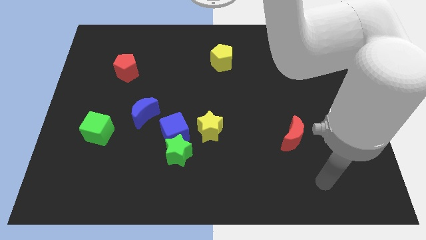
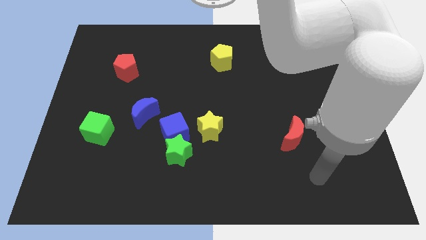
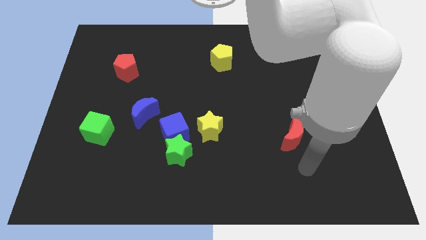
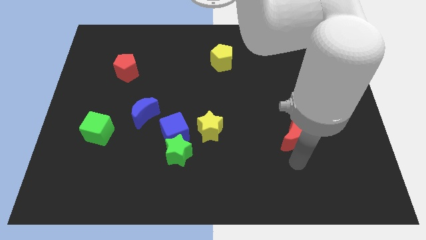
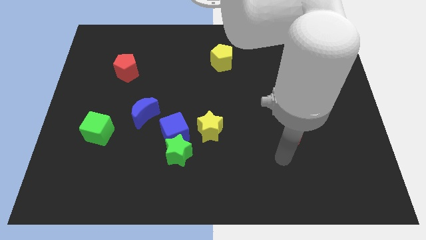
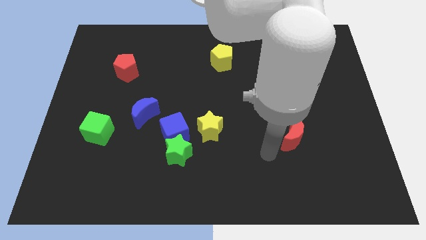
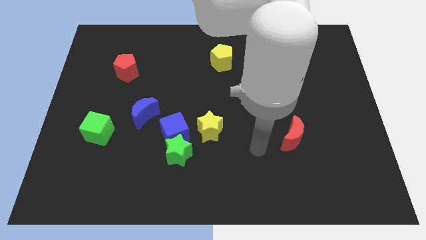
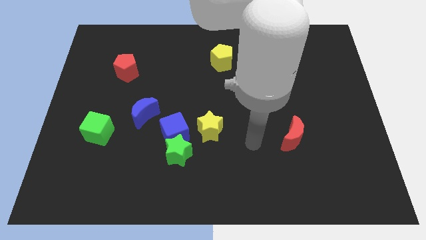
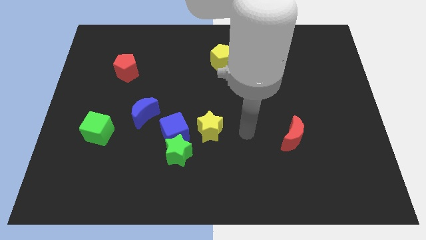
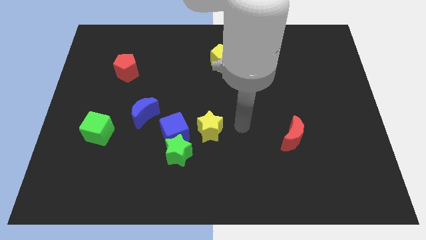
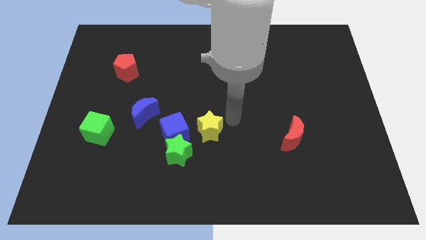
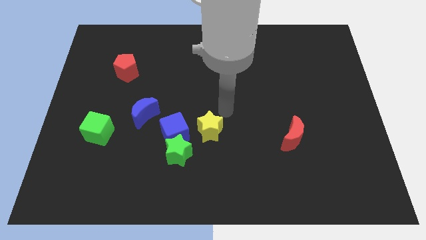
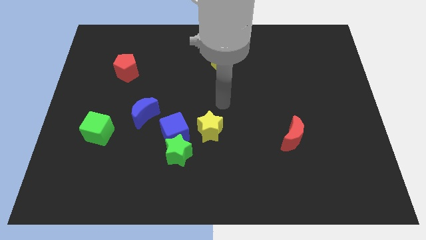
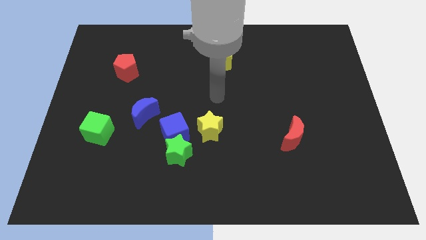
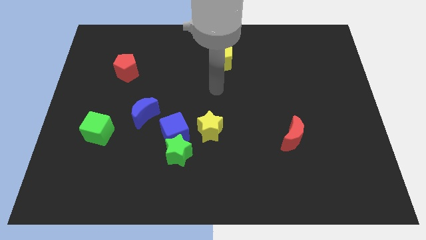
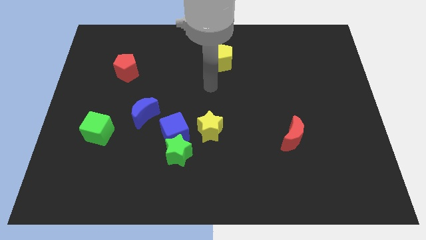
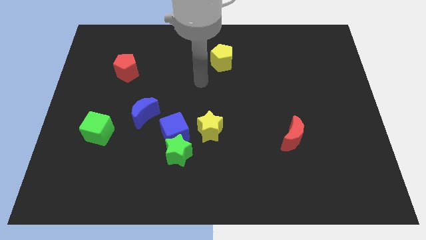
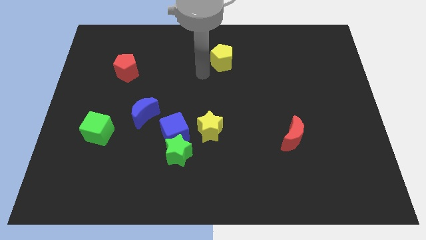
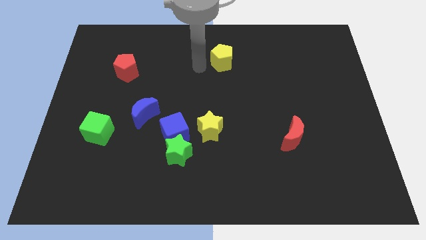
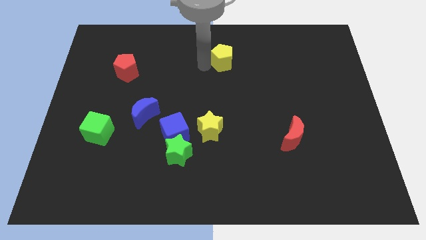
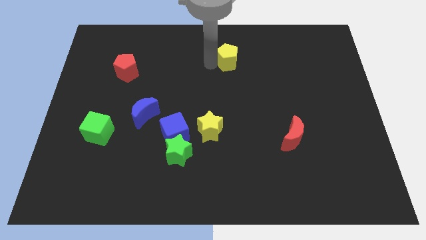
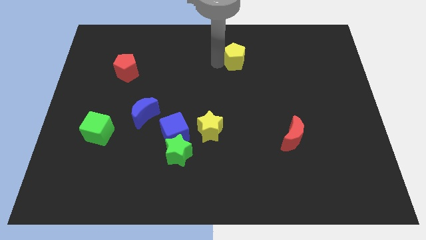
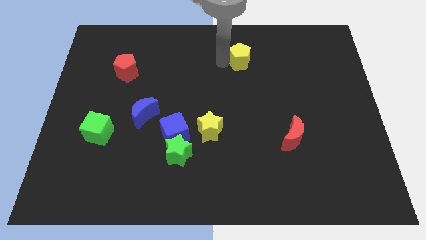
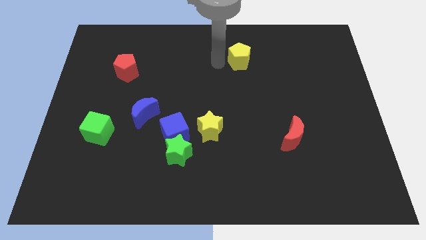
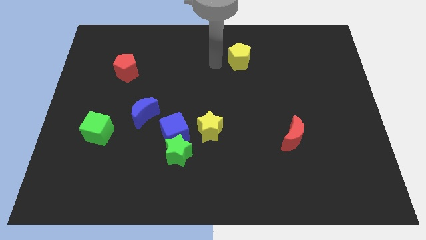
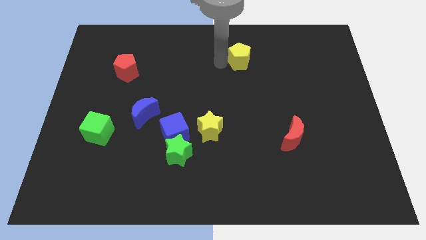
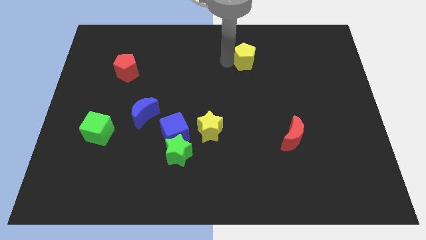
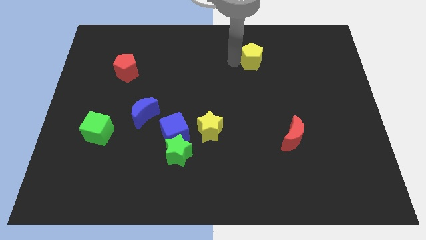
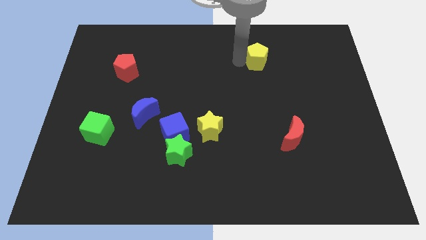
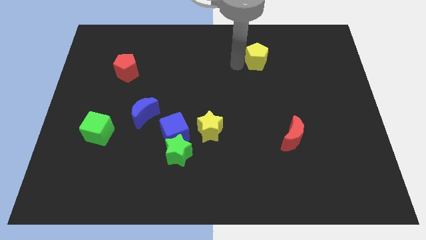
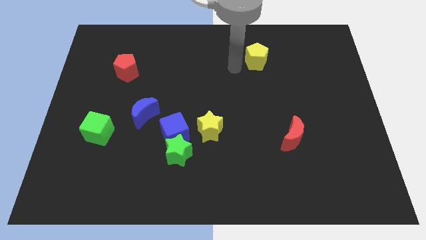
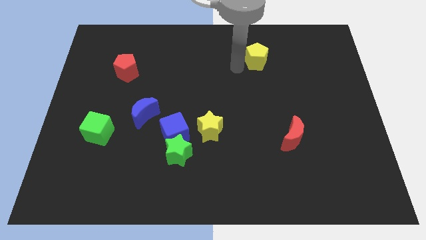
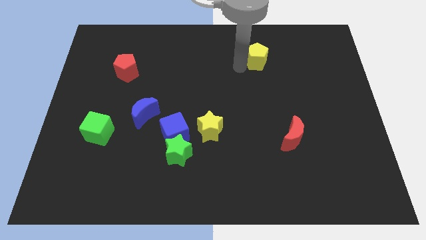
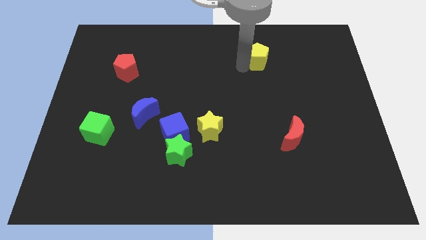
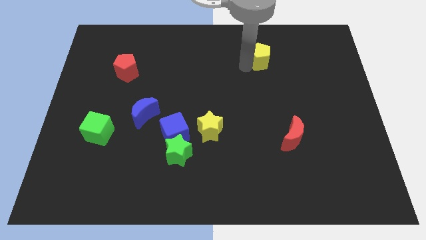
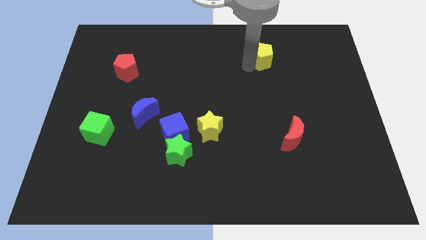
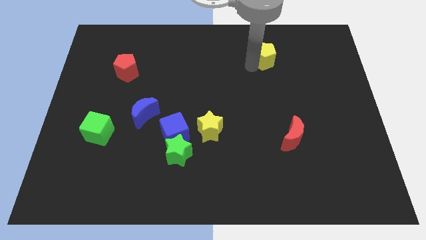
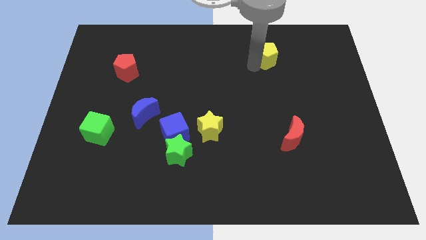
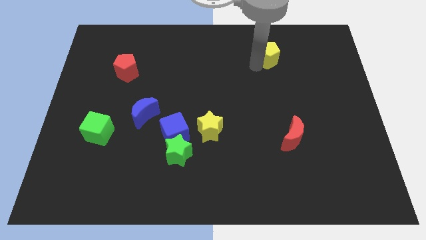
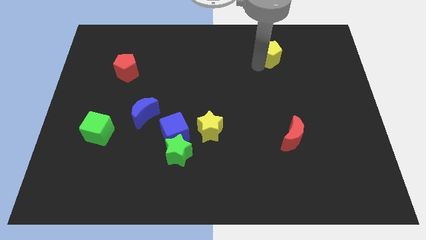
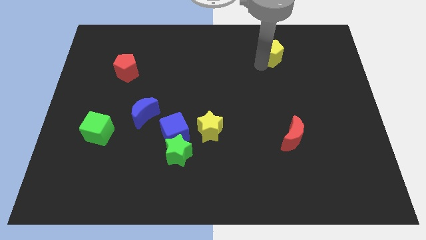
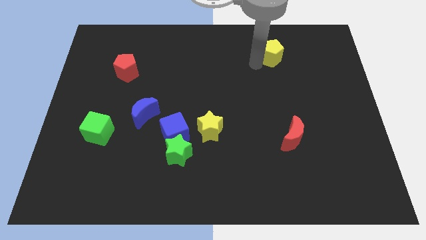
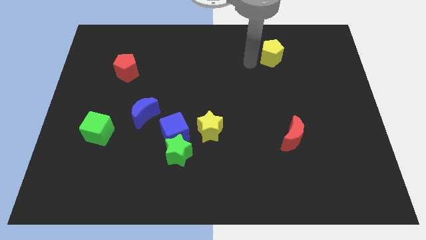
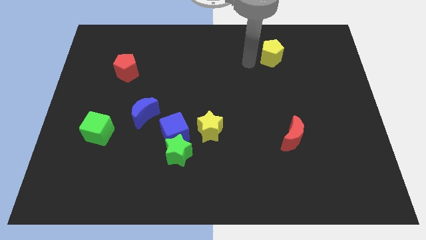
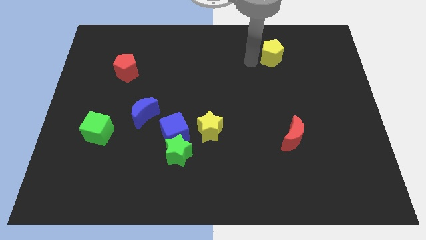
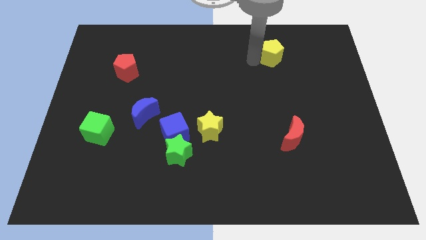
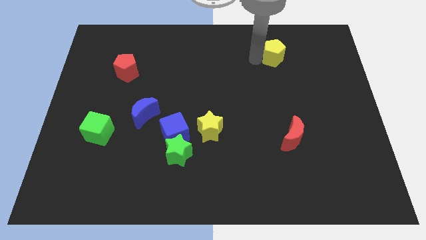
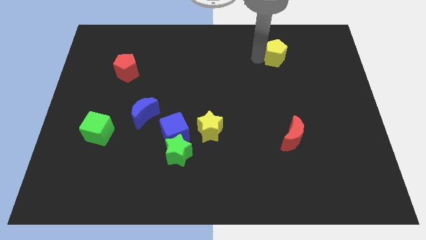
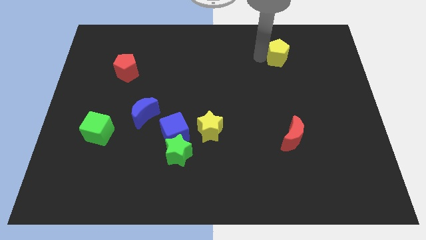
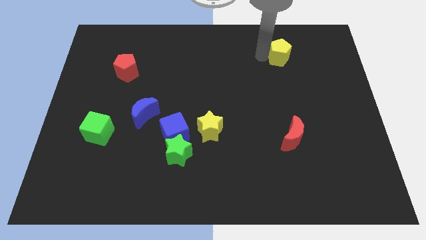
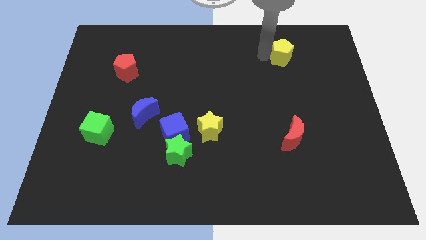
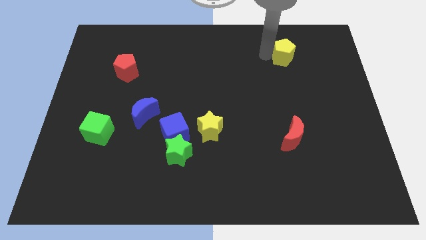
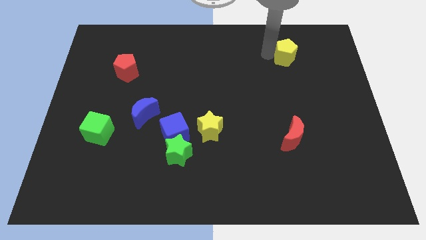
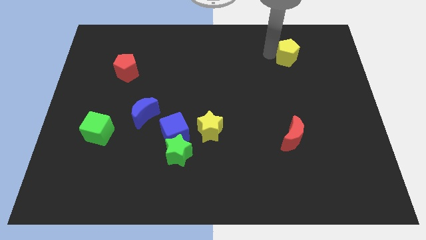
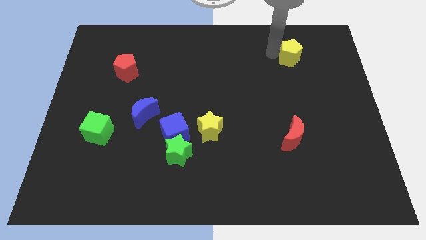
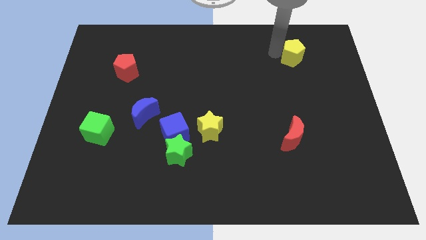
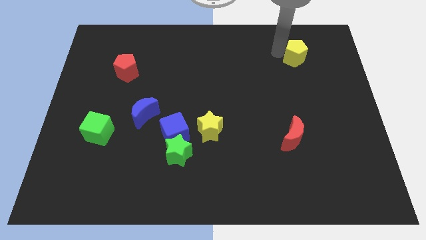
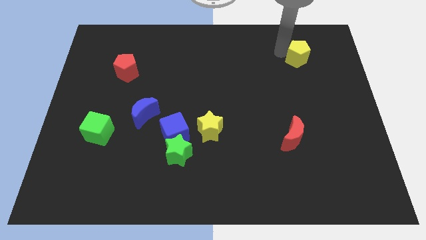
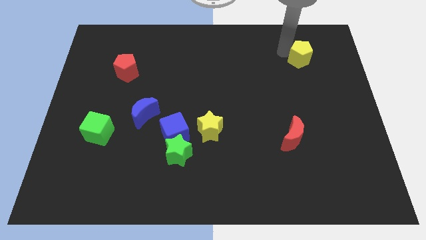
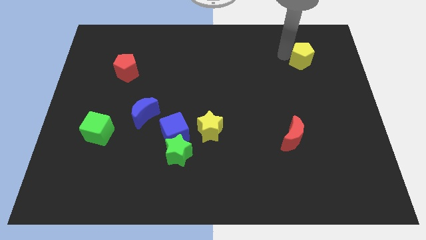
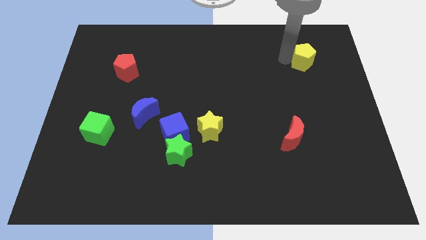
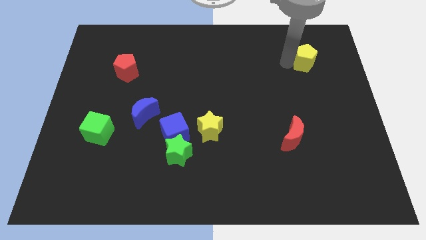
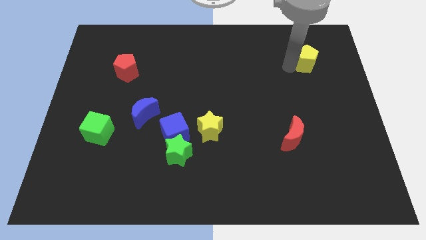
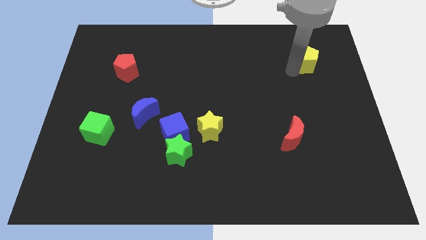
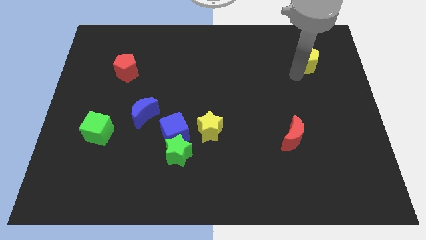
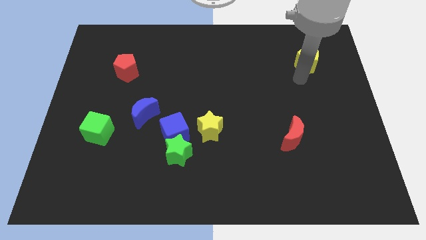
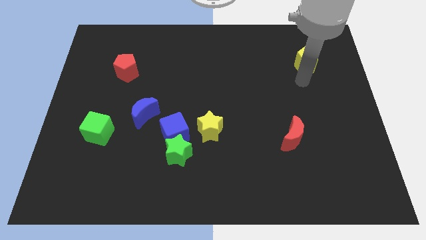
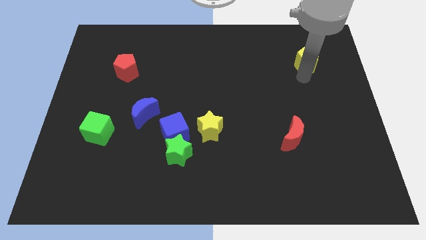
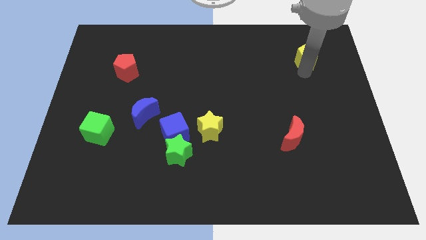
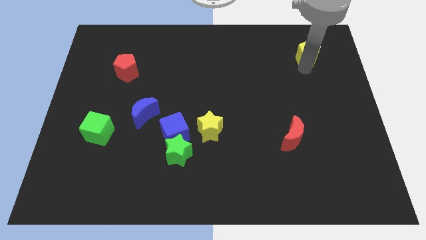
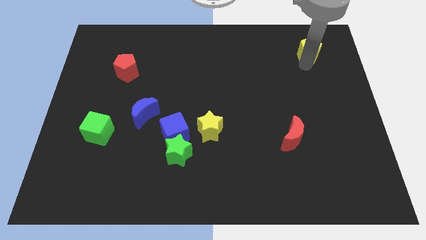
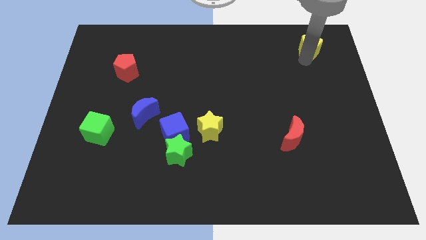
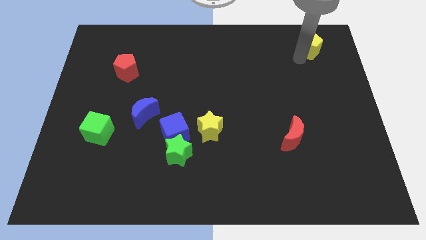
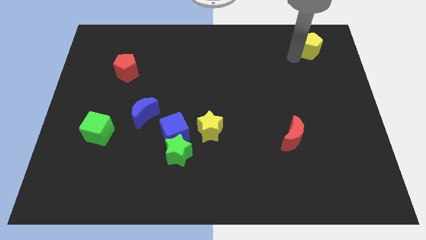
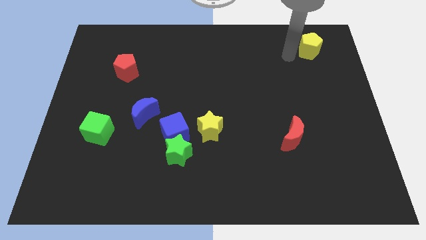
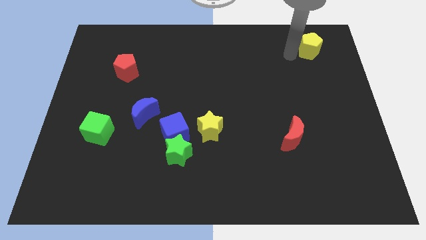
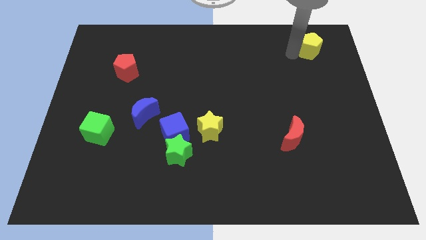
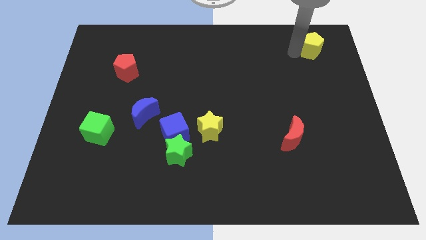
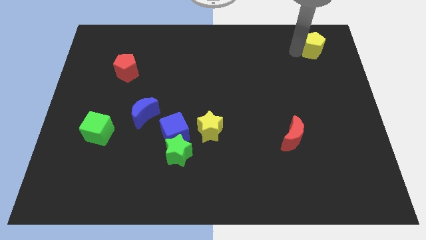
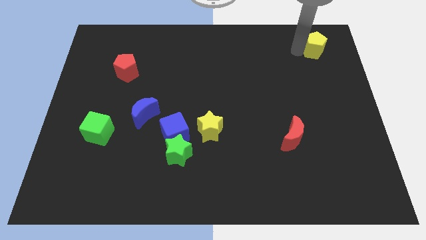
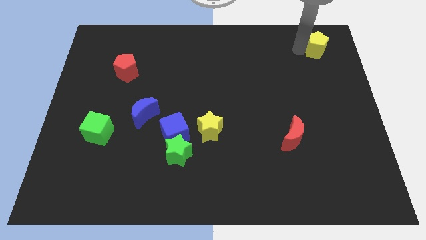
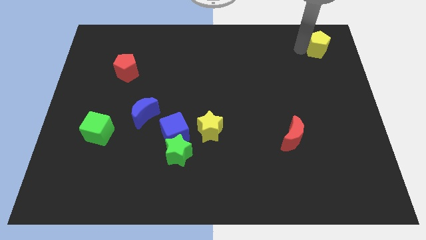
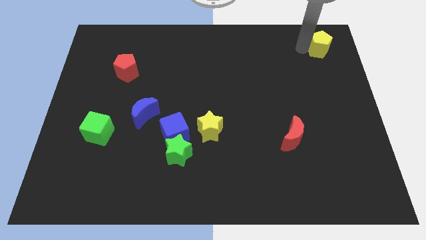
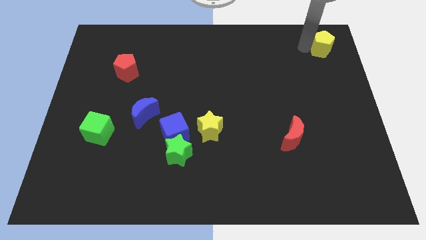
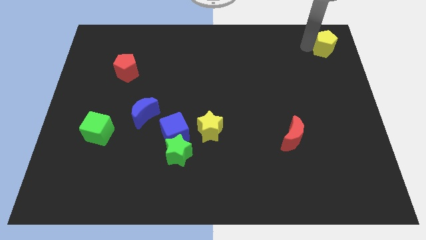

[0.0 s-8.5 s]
move the yellow pentagon to the upper right corner
